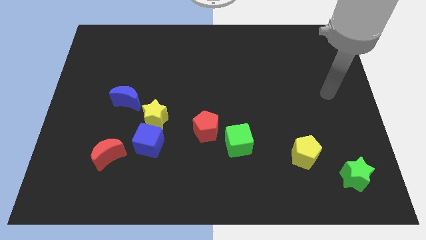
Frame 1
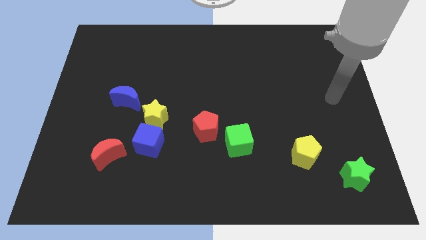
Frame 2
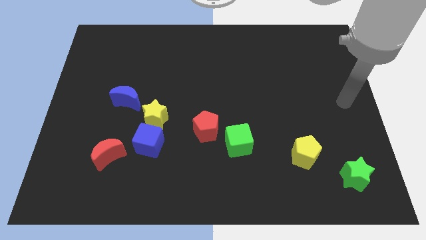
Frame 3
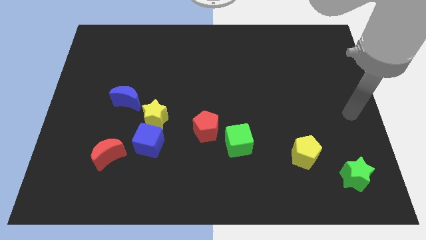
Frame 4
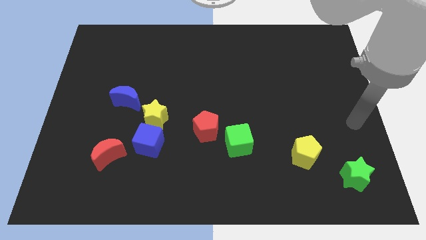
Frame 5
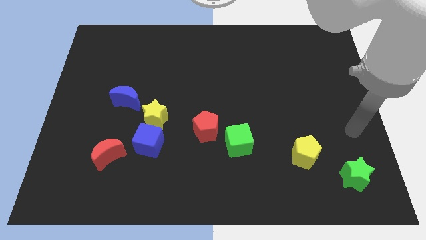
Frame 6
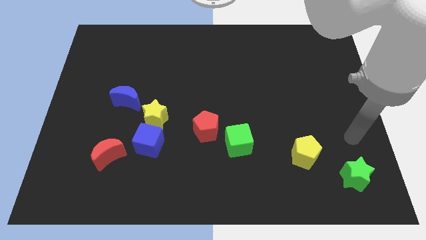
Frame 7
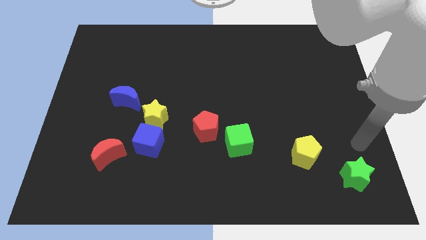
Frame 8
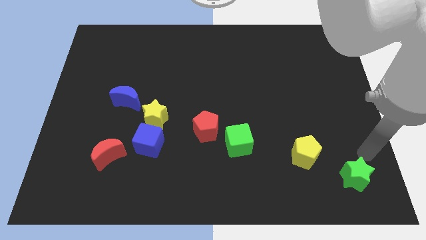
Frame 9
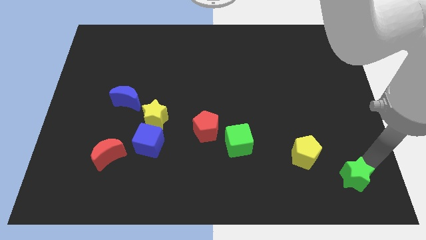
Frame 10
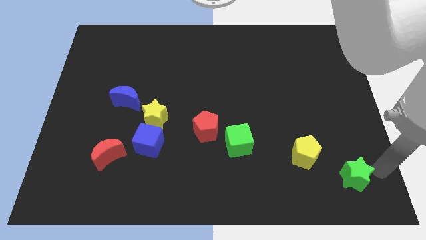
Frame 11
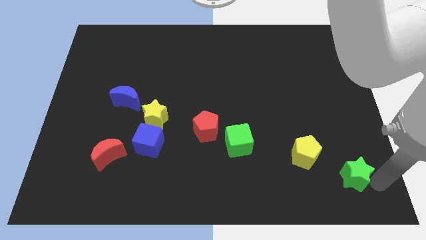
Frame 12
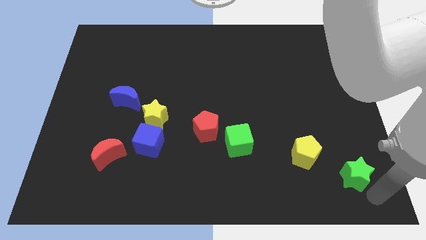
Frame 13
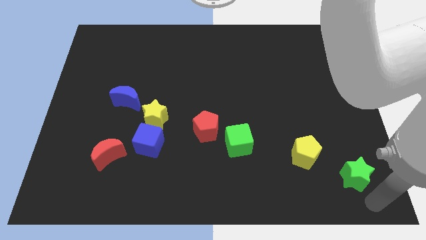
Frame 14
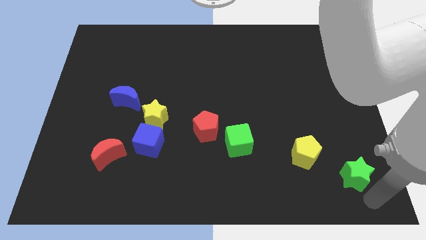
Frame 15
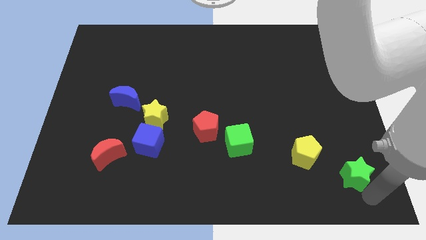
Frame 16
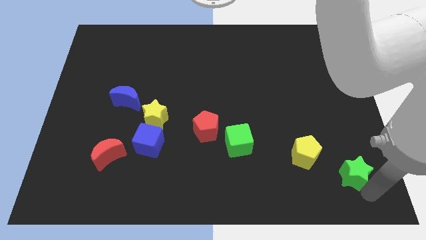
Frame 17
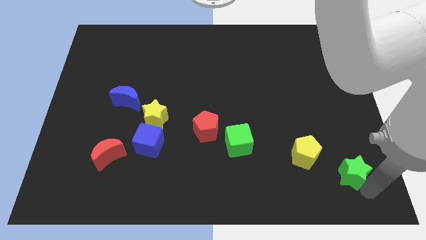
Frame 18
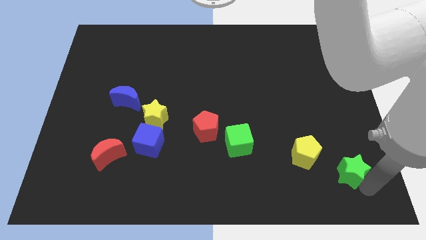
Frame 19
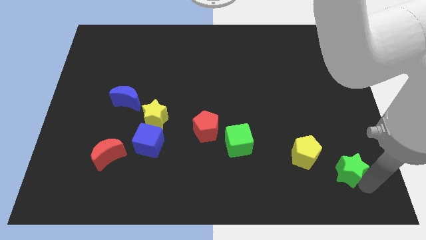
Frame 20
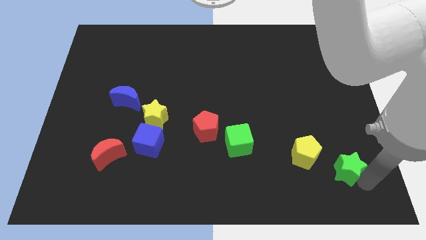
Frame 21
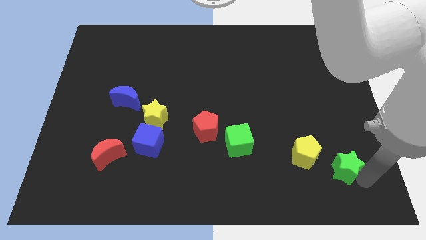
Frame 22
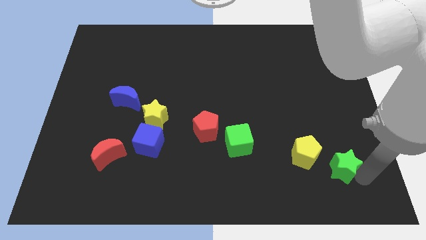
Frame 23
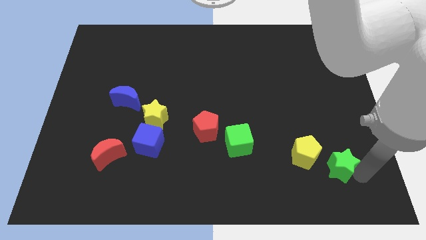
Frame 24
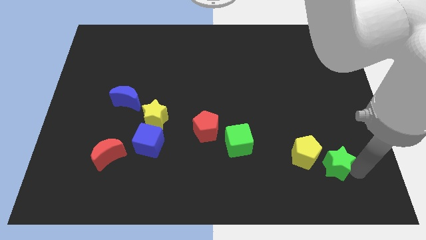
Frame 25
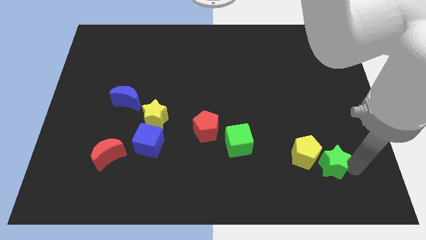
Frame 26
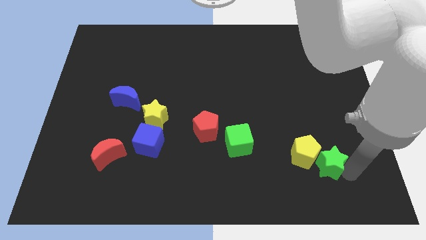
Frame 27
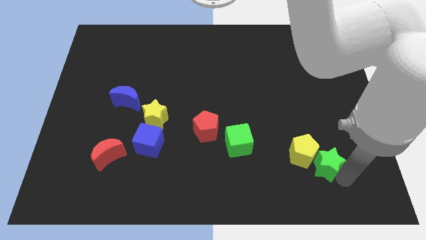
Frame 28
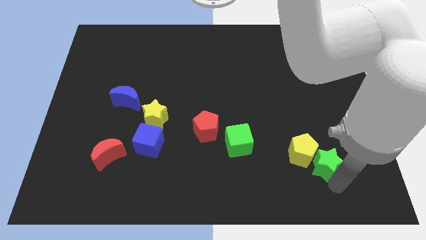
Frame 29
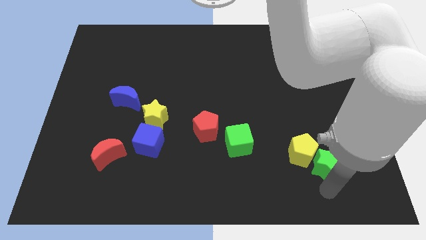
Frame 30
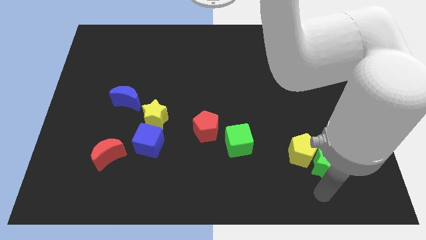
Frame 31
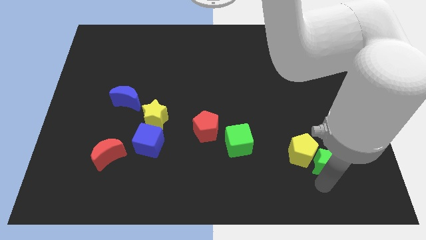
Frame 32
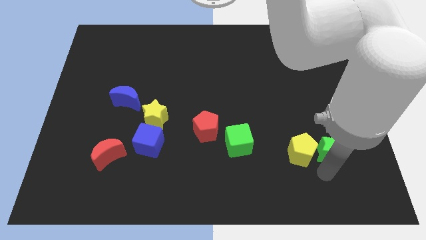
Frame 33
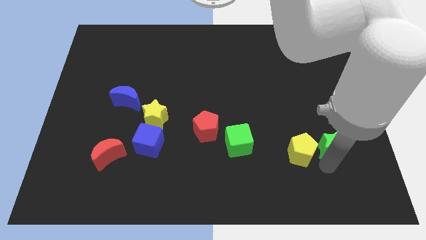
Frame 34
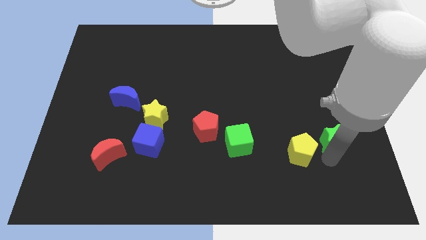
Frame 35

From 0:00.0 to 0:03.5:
slide the green star up a bit

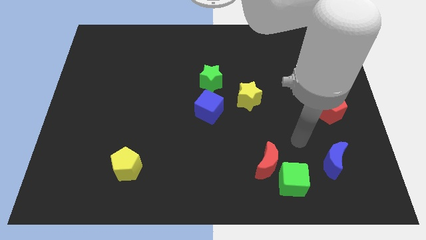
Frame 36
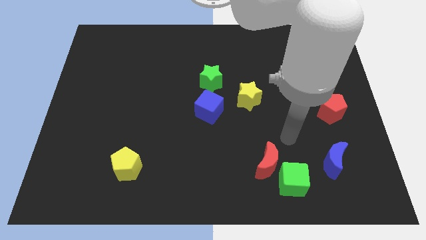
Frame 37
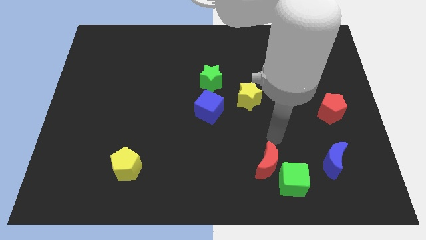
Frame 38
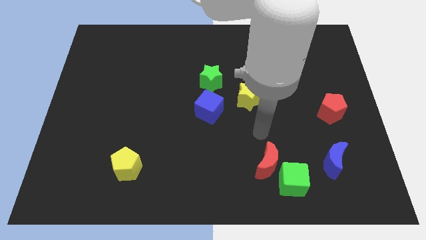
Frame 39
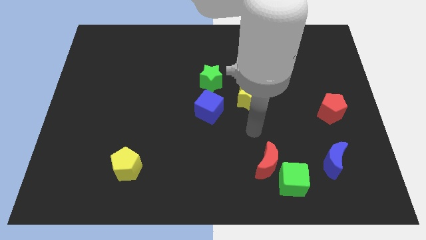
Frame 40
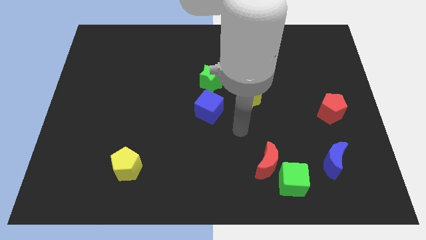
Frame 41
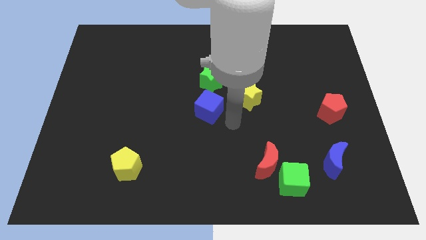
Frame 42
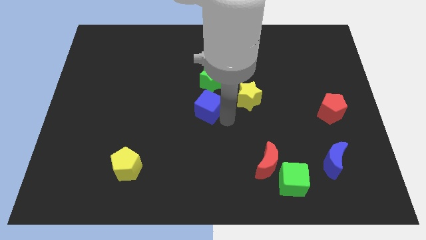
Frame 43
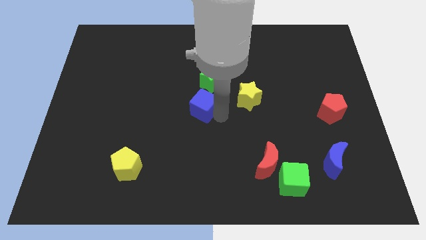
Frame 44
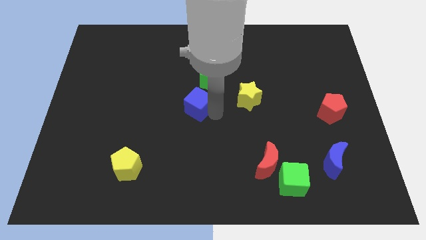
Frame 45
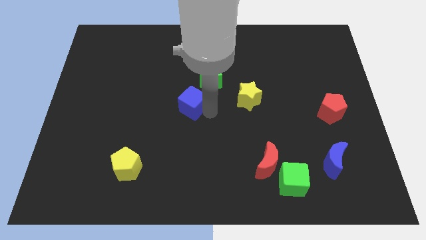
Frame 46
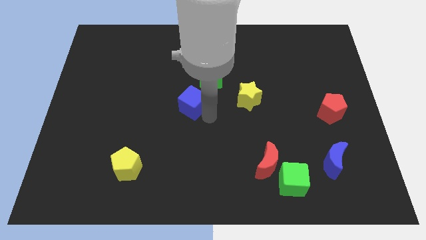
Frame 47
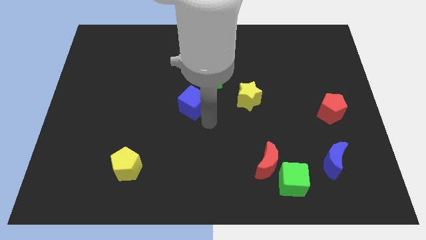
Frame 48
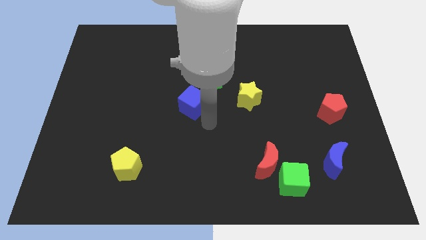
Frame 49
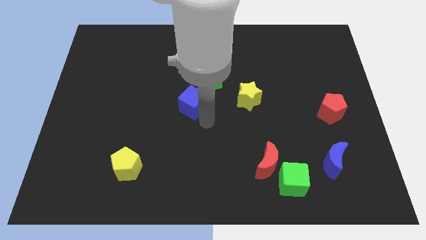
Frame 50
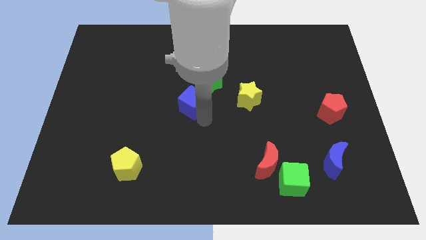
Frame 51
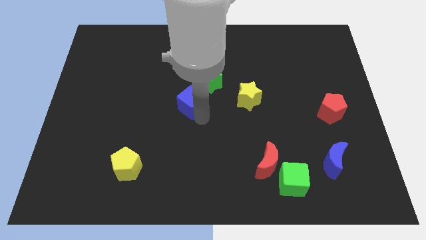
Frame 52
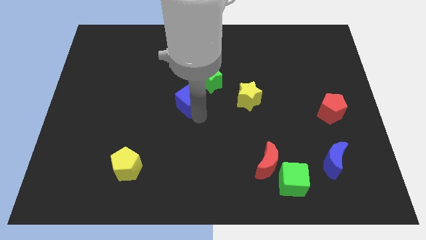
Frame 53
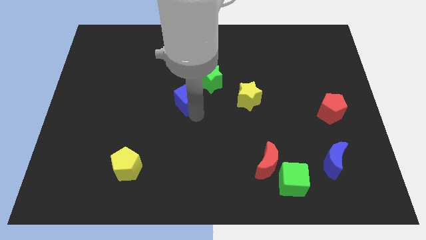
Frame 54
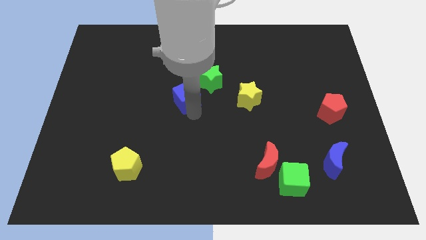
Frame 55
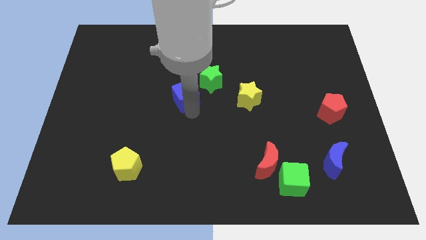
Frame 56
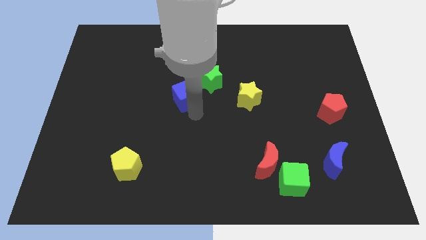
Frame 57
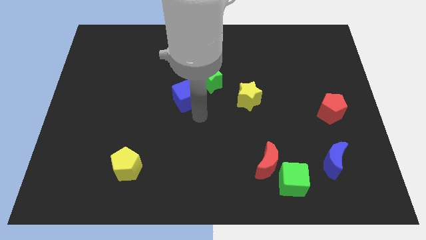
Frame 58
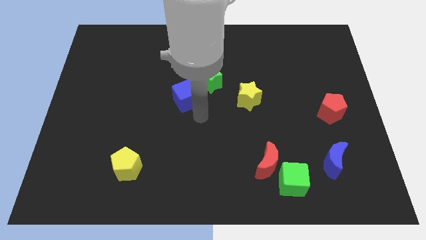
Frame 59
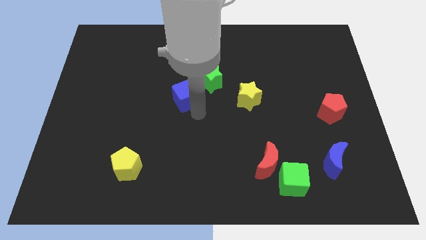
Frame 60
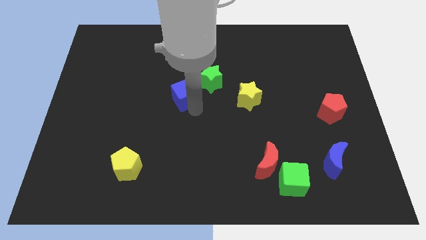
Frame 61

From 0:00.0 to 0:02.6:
slightly slide the blue cube diagonally upwards and left

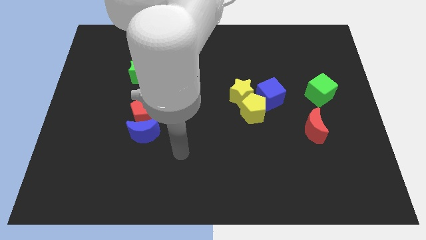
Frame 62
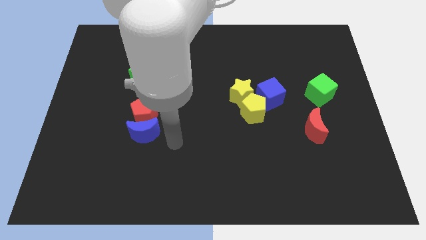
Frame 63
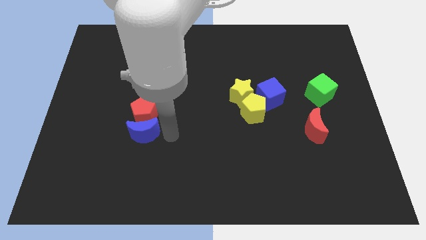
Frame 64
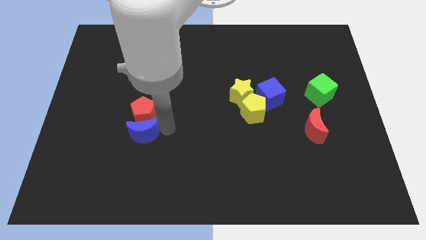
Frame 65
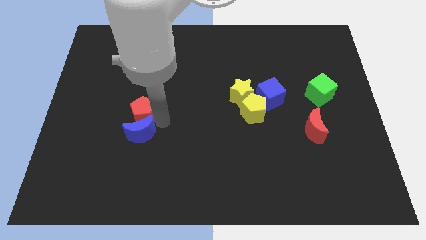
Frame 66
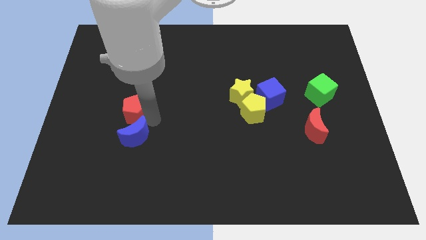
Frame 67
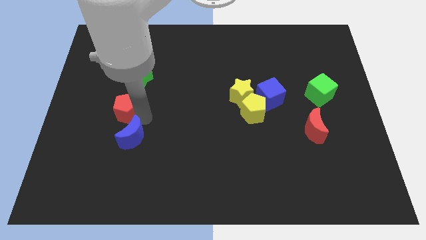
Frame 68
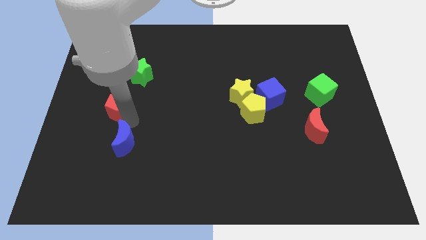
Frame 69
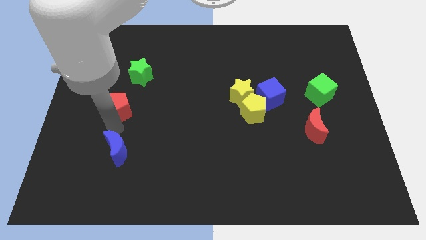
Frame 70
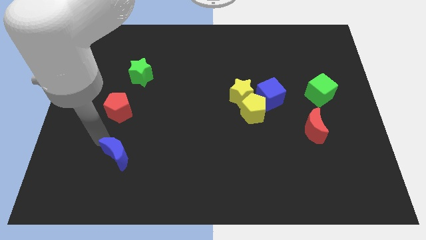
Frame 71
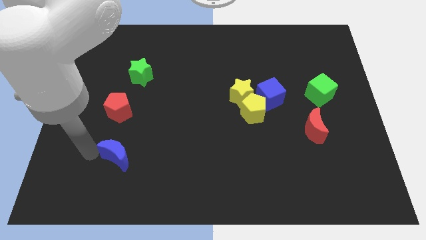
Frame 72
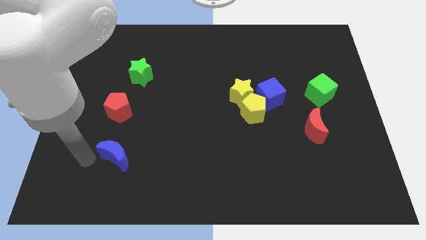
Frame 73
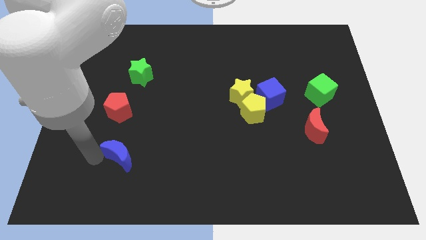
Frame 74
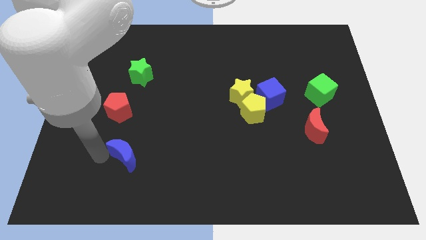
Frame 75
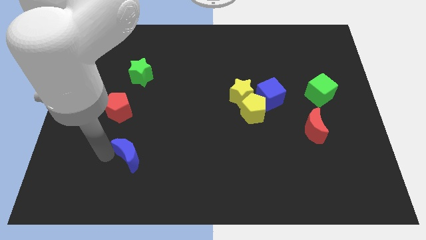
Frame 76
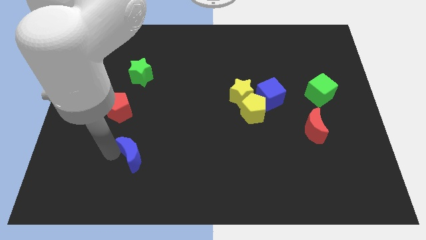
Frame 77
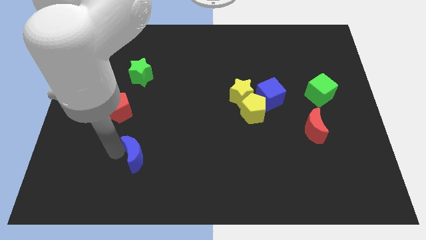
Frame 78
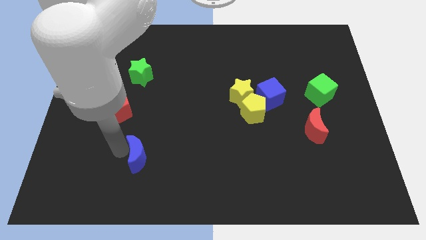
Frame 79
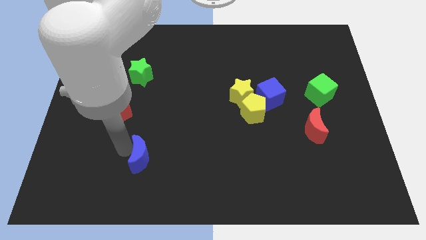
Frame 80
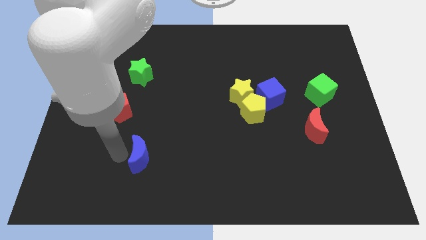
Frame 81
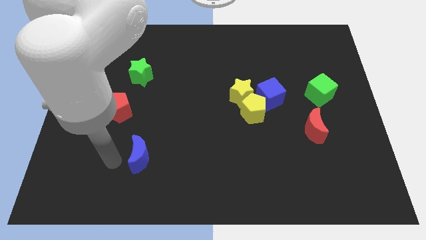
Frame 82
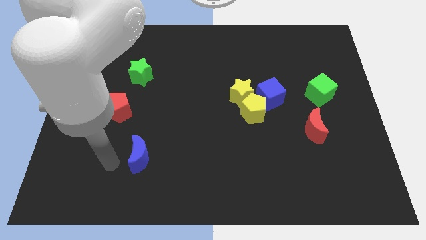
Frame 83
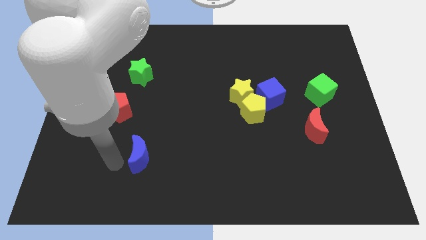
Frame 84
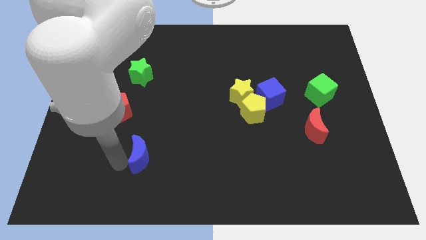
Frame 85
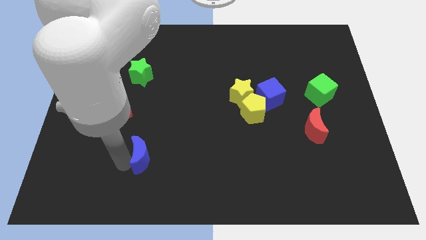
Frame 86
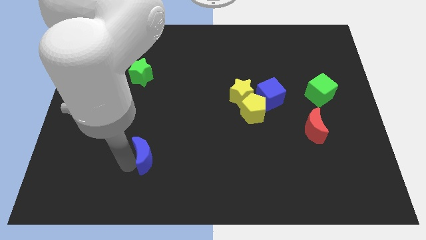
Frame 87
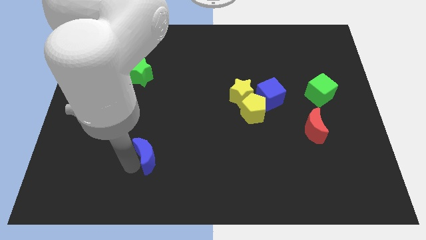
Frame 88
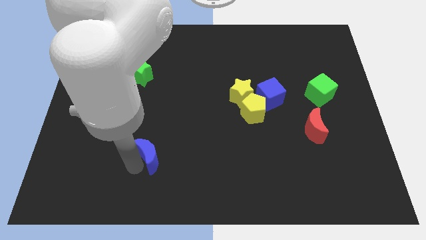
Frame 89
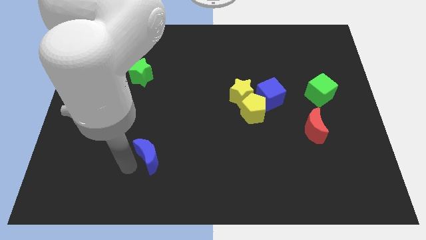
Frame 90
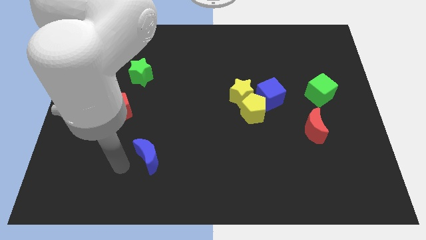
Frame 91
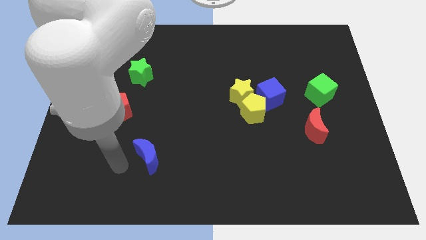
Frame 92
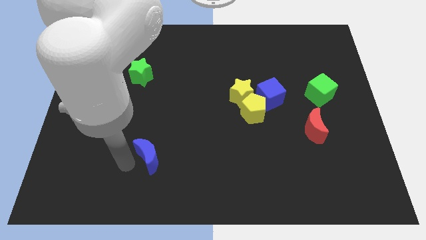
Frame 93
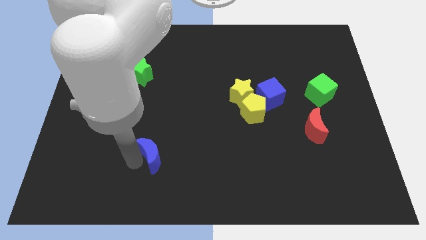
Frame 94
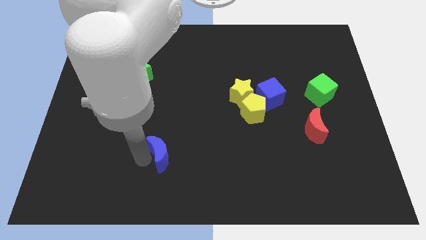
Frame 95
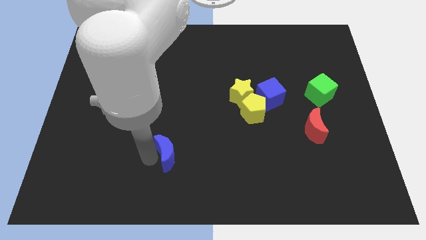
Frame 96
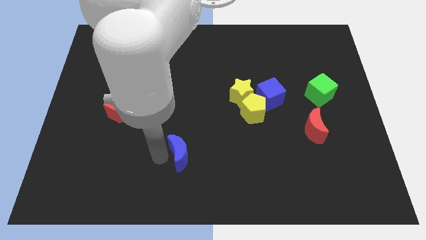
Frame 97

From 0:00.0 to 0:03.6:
move the blue moon a little right
